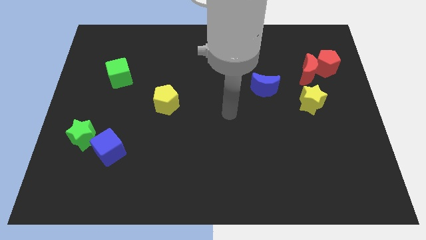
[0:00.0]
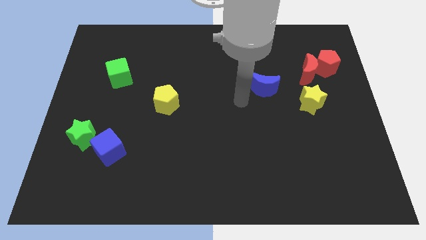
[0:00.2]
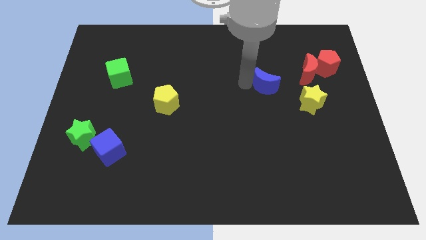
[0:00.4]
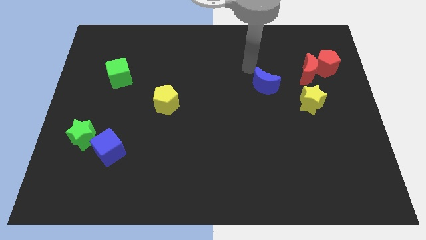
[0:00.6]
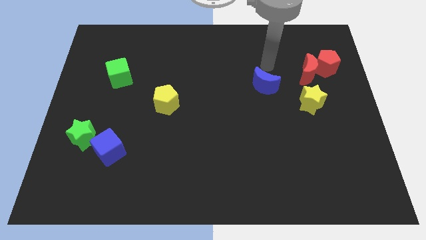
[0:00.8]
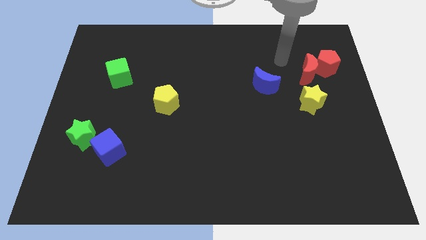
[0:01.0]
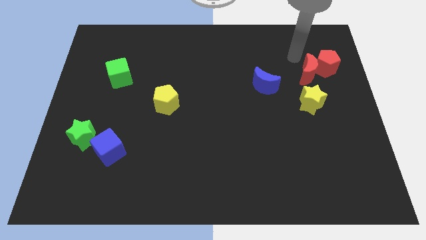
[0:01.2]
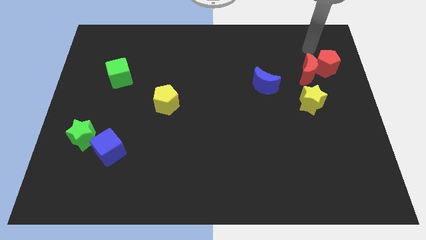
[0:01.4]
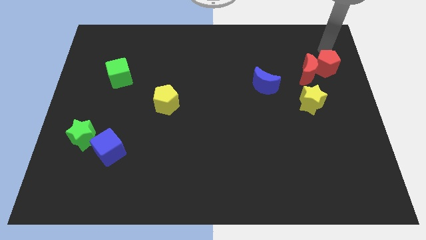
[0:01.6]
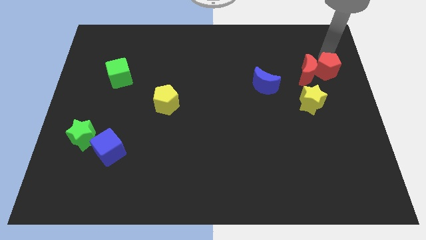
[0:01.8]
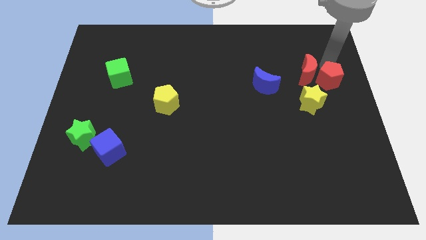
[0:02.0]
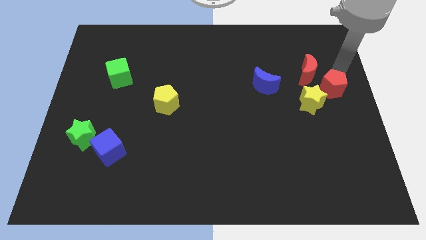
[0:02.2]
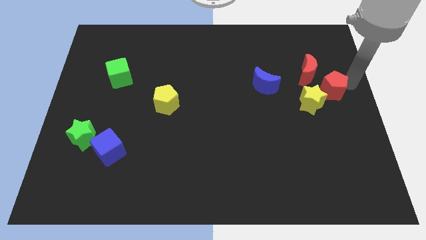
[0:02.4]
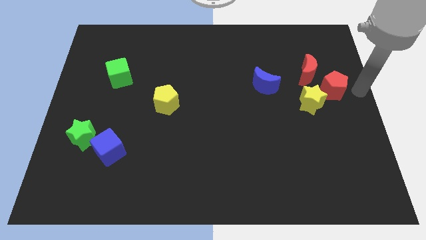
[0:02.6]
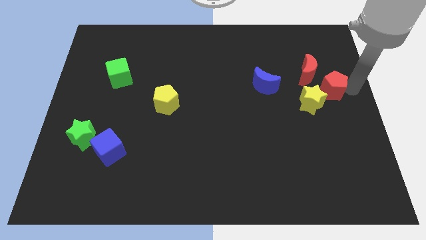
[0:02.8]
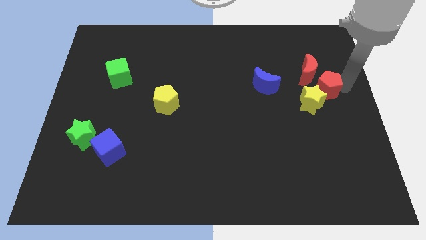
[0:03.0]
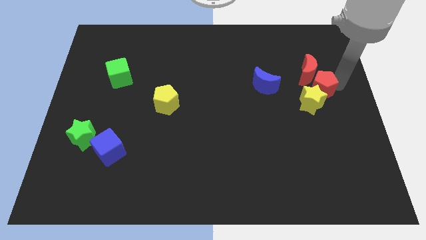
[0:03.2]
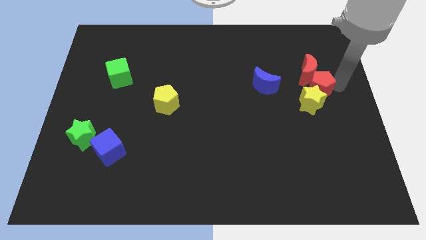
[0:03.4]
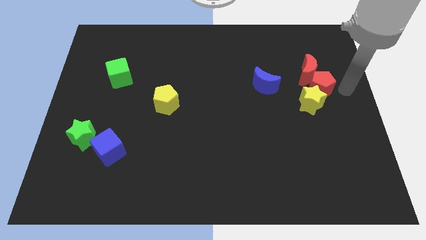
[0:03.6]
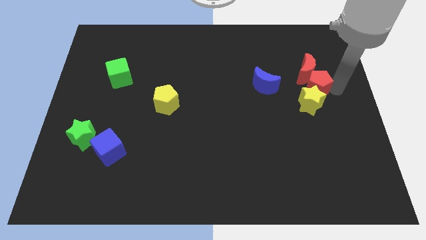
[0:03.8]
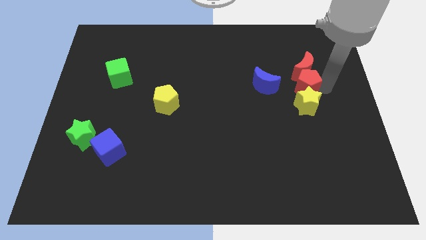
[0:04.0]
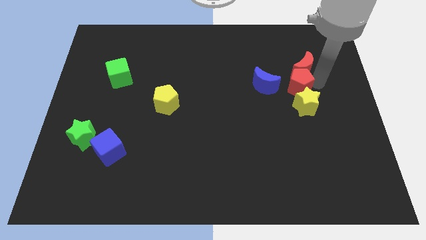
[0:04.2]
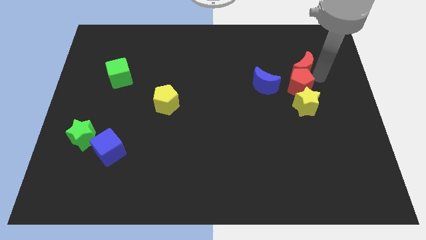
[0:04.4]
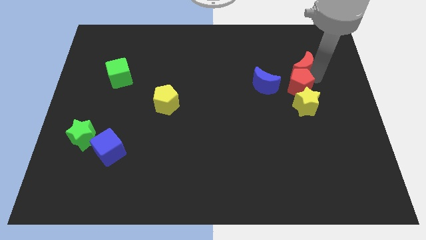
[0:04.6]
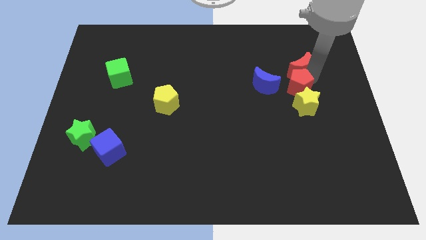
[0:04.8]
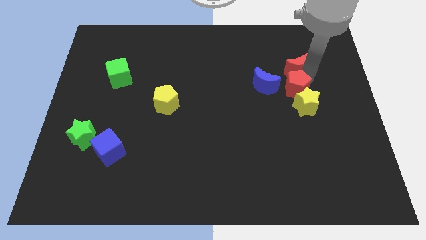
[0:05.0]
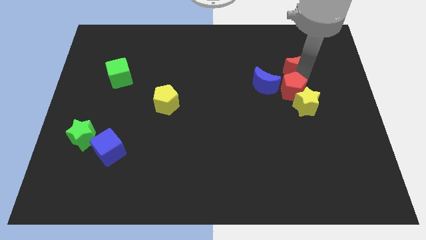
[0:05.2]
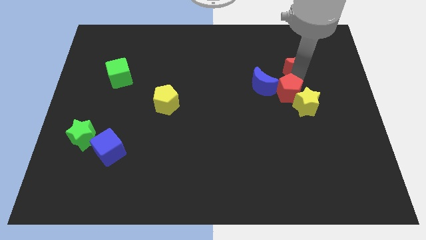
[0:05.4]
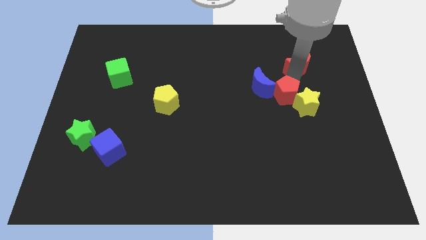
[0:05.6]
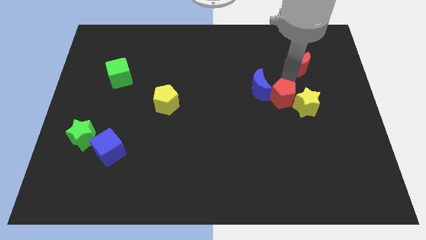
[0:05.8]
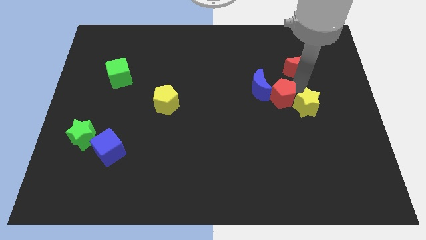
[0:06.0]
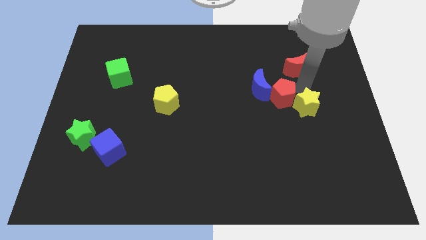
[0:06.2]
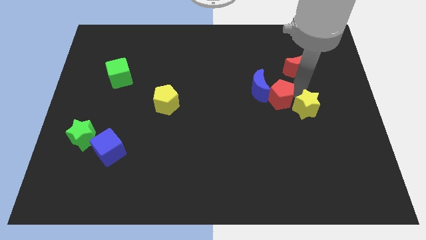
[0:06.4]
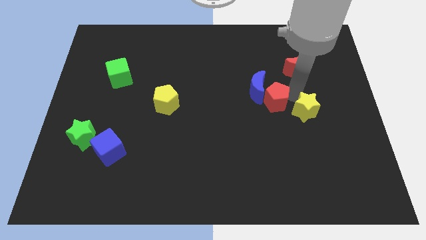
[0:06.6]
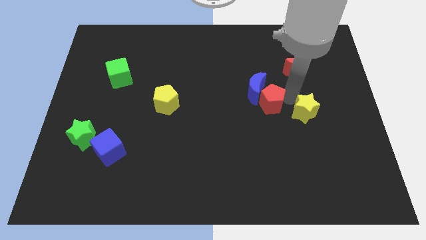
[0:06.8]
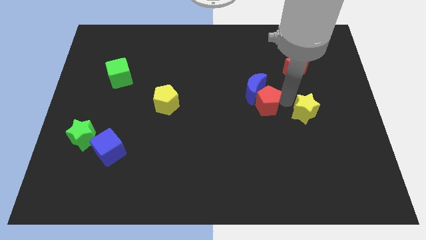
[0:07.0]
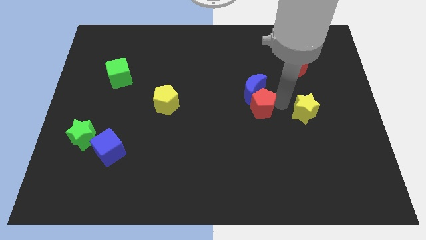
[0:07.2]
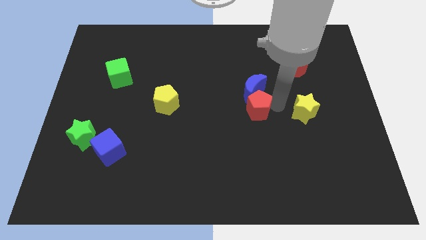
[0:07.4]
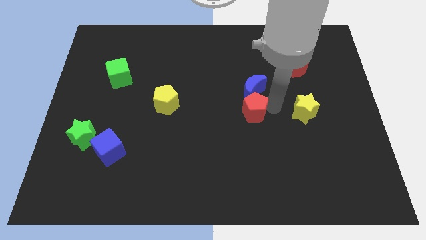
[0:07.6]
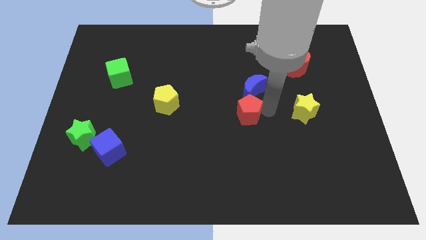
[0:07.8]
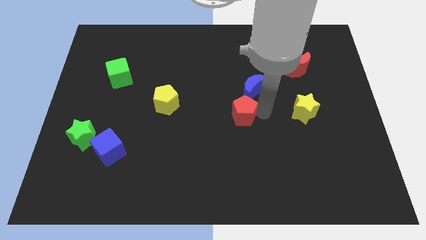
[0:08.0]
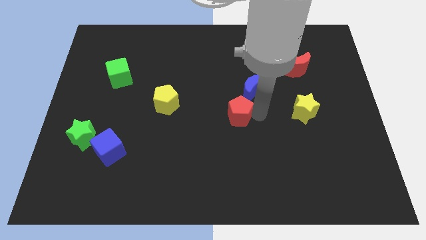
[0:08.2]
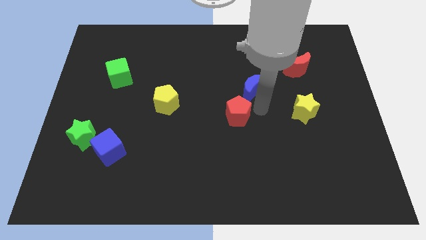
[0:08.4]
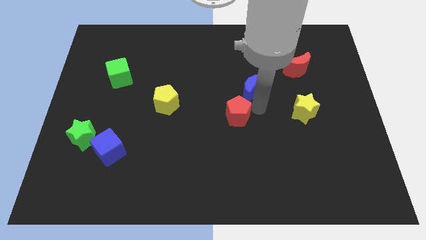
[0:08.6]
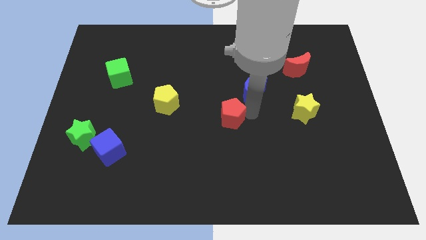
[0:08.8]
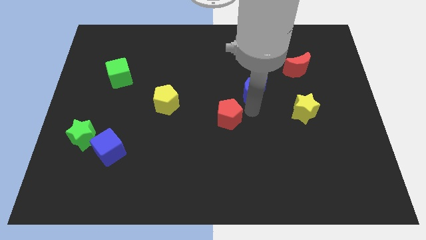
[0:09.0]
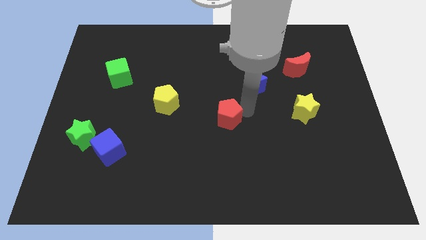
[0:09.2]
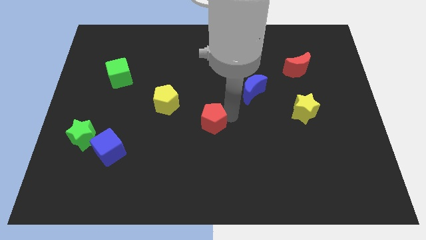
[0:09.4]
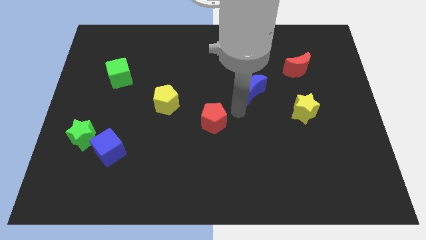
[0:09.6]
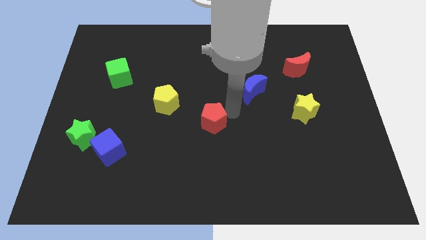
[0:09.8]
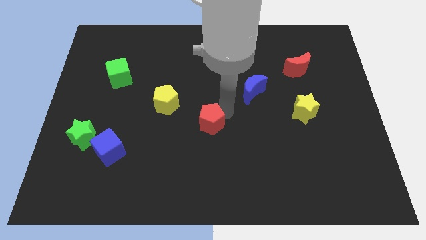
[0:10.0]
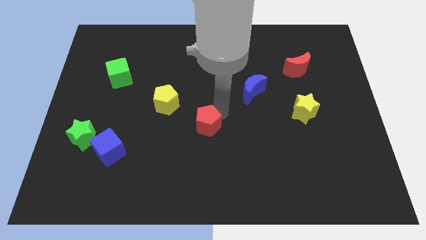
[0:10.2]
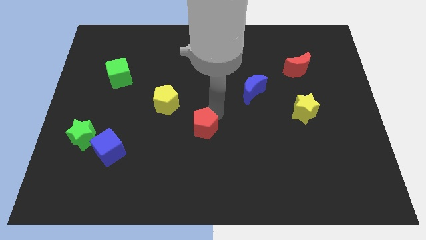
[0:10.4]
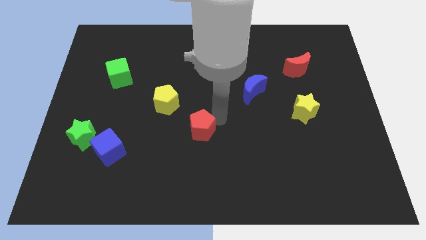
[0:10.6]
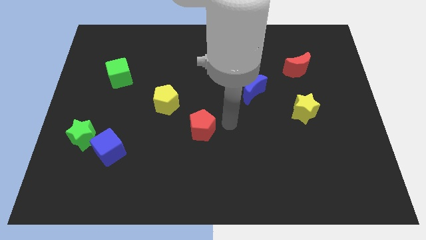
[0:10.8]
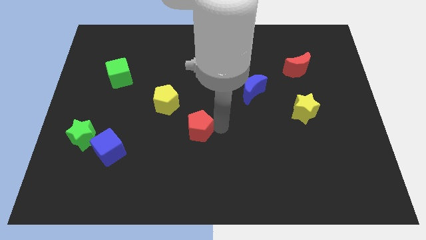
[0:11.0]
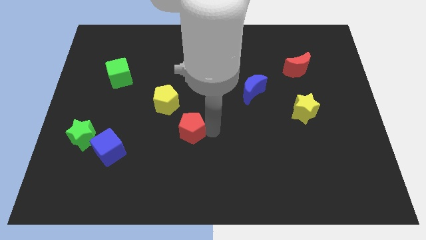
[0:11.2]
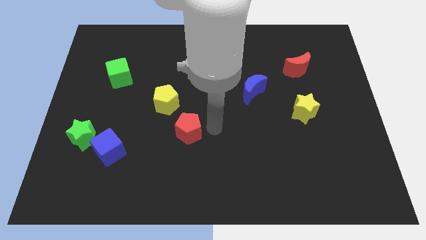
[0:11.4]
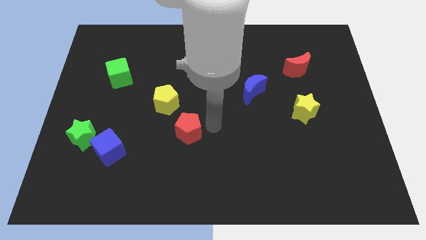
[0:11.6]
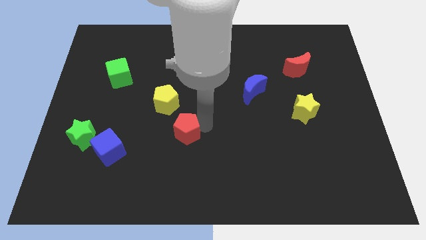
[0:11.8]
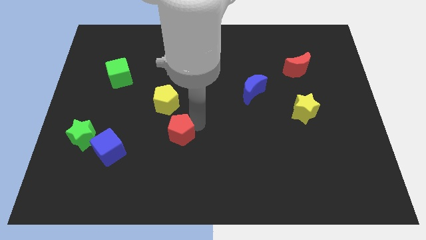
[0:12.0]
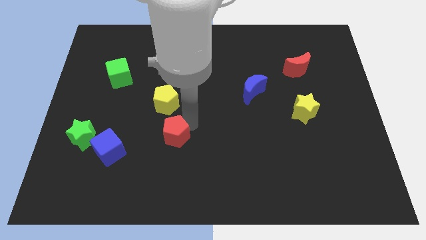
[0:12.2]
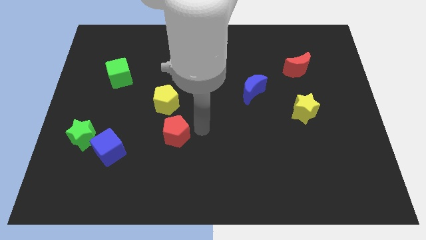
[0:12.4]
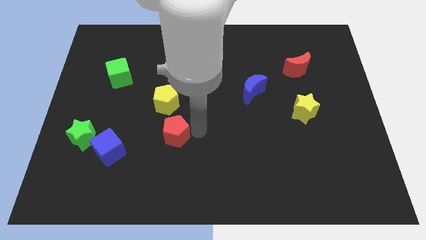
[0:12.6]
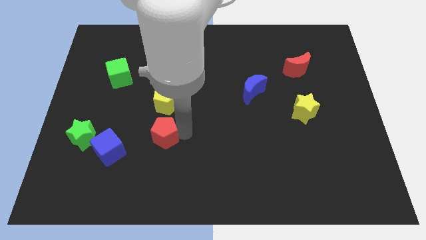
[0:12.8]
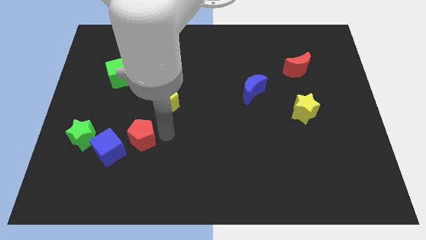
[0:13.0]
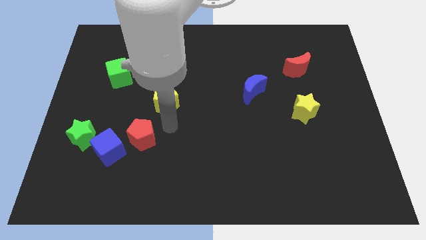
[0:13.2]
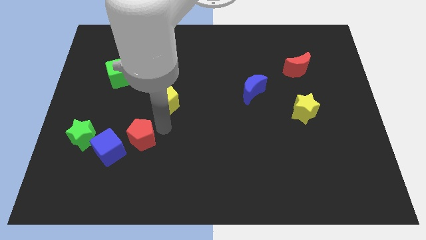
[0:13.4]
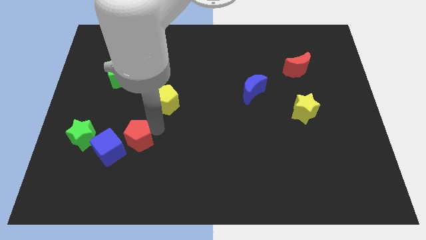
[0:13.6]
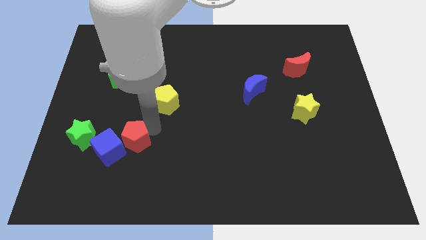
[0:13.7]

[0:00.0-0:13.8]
slide the red pentagon close to the blue cube
